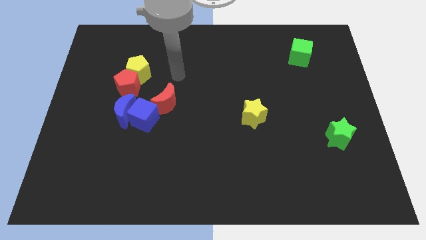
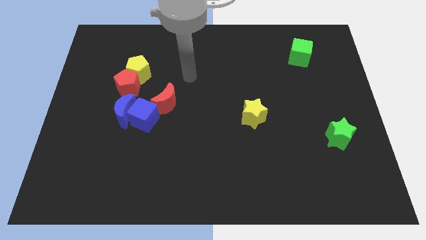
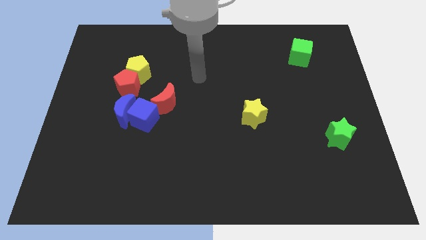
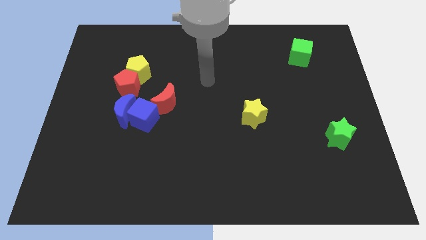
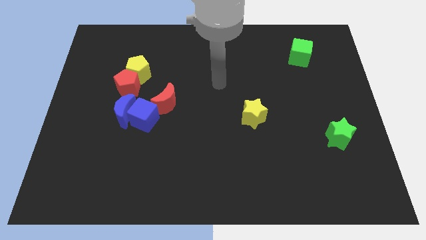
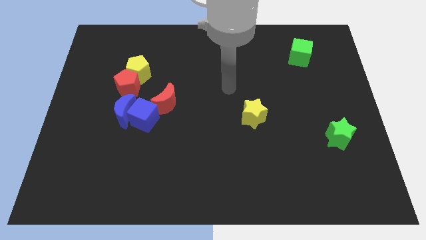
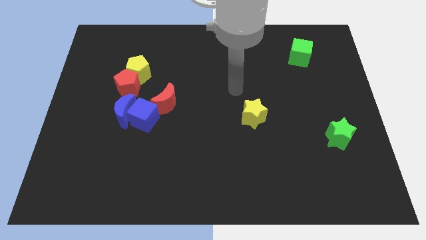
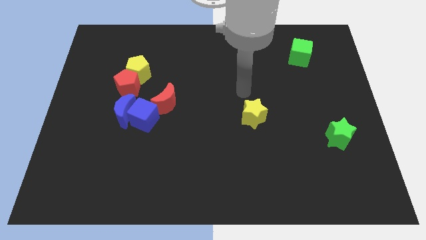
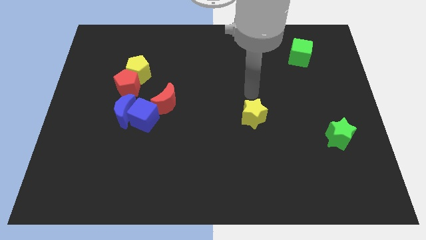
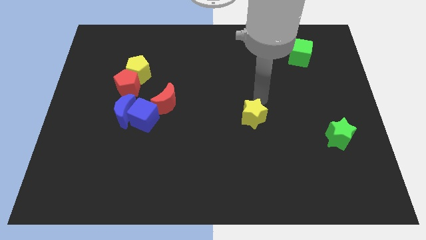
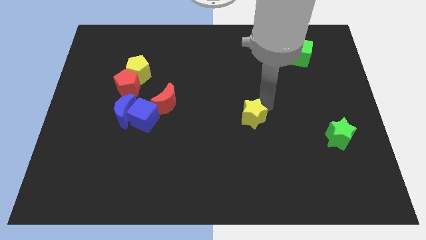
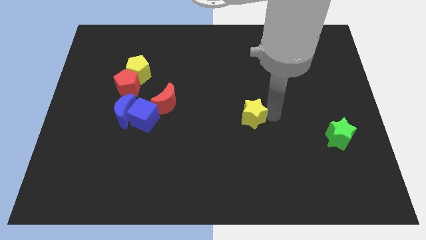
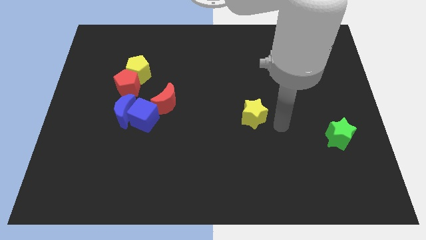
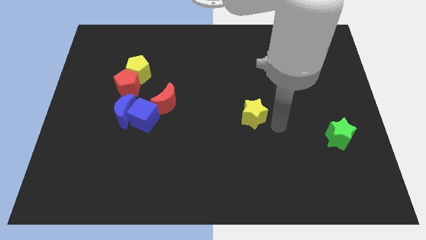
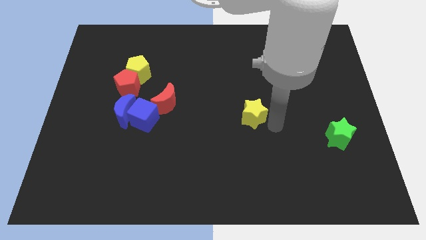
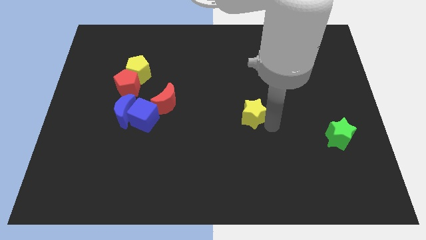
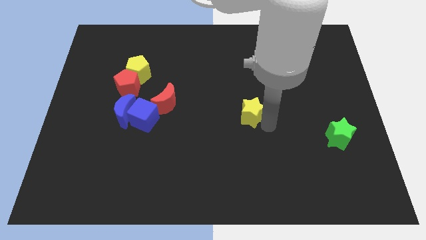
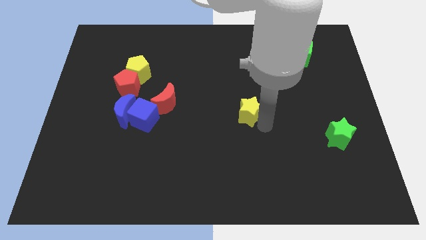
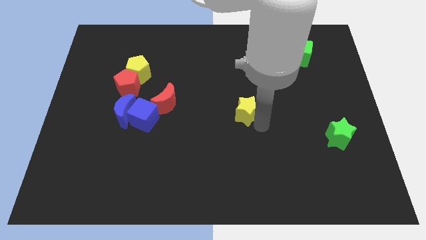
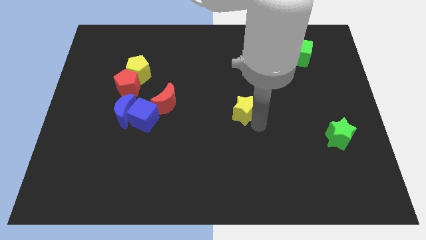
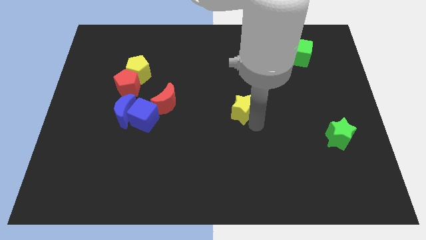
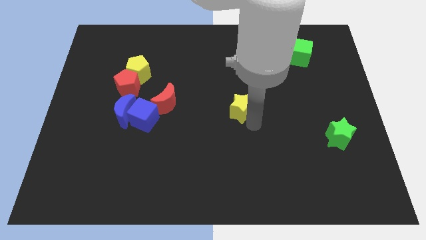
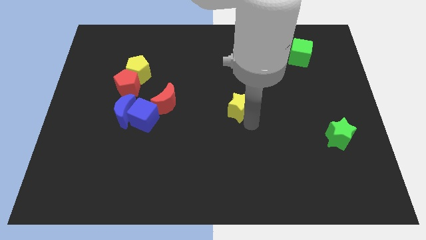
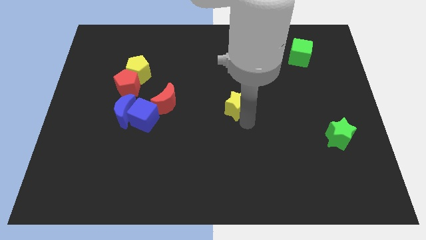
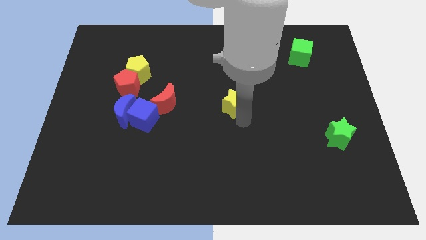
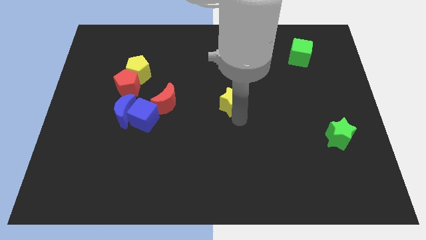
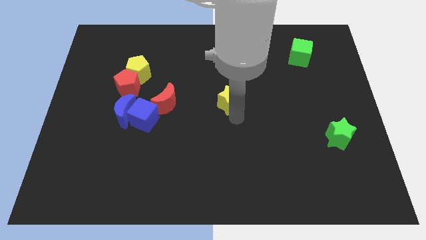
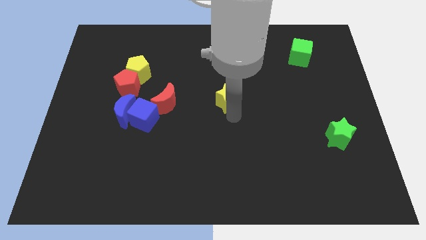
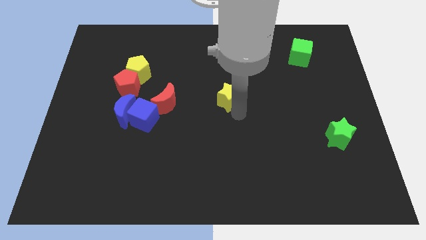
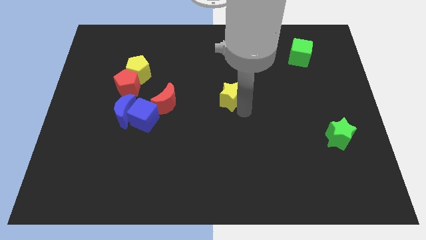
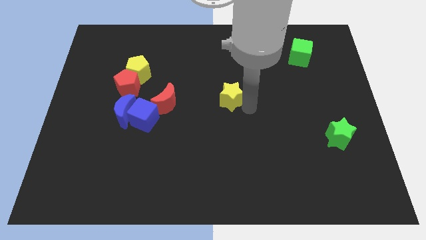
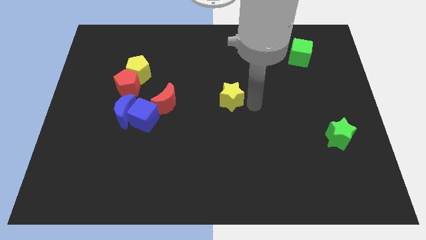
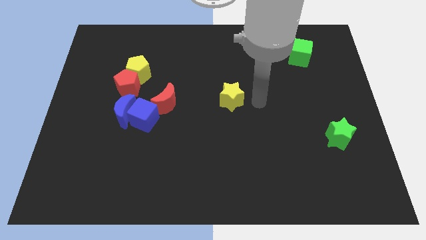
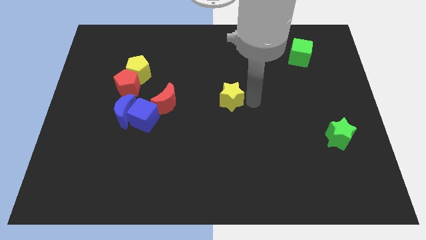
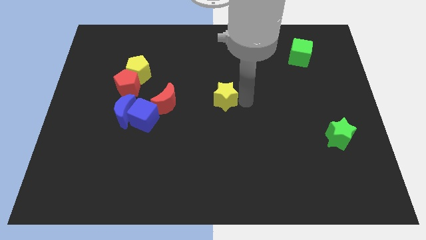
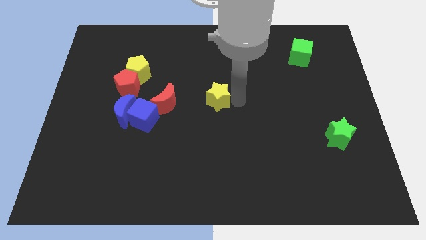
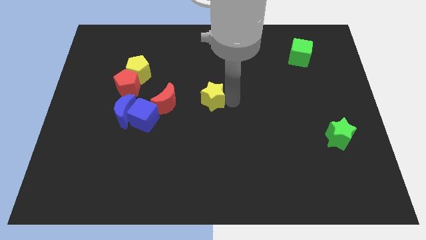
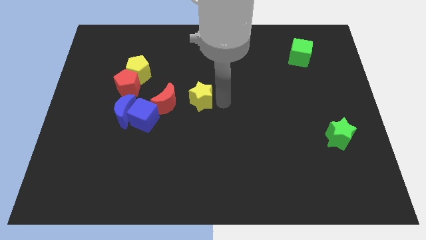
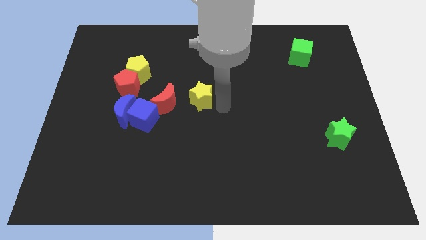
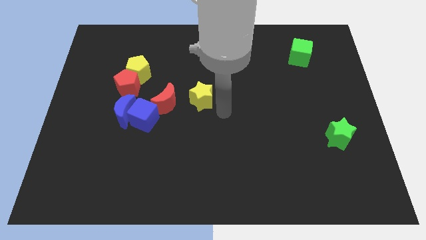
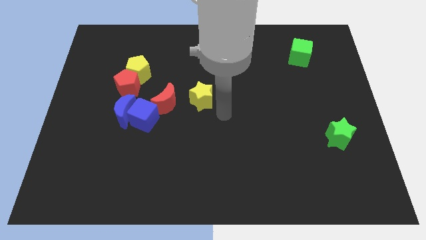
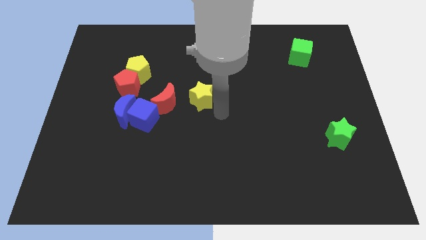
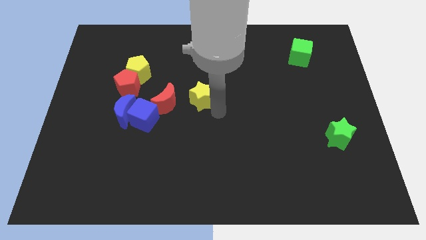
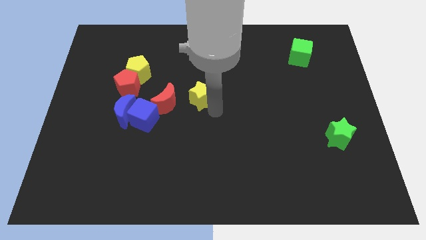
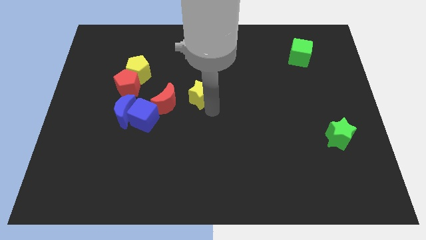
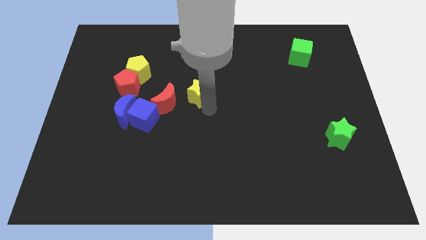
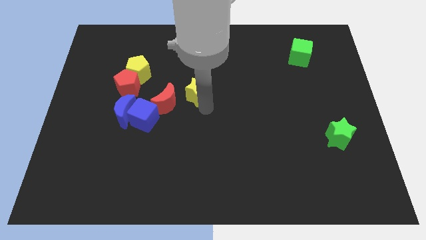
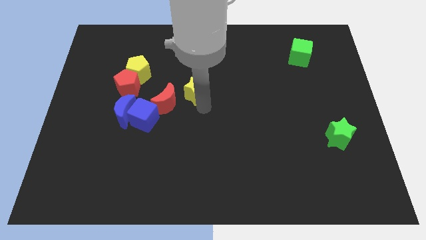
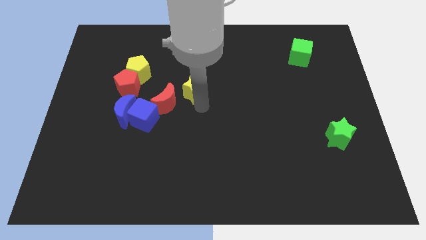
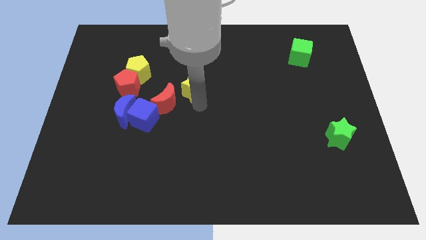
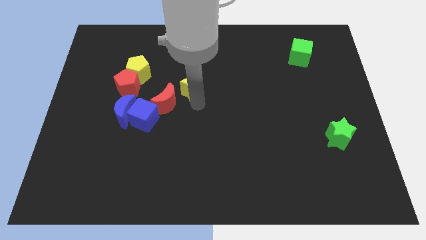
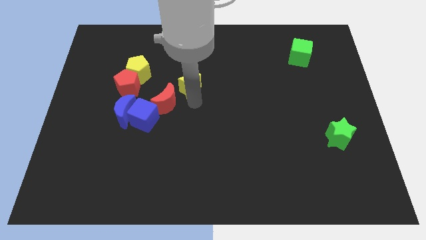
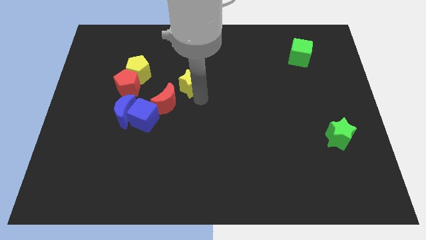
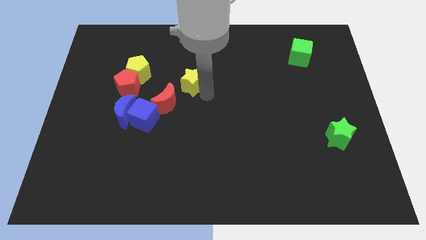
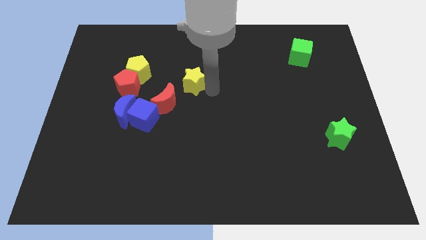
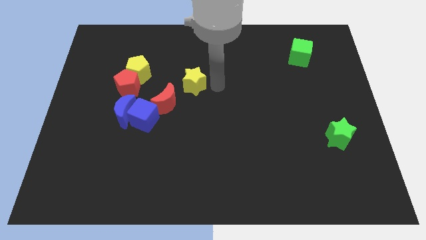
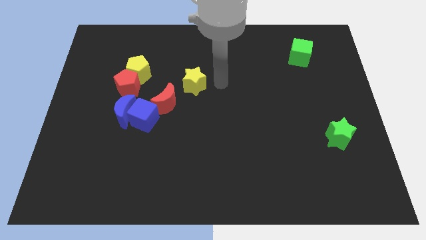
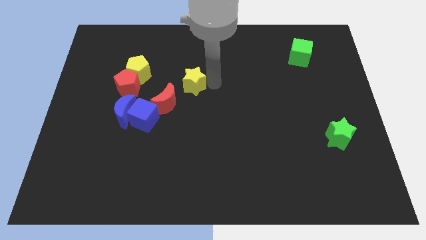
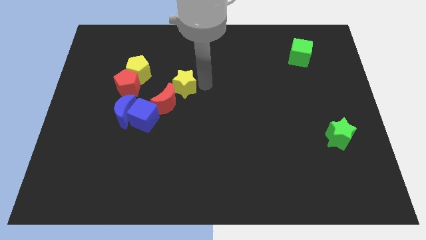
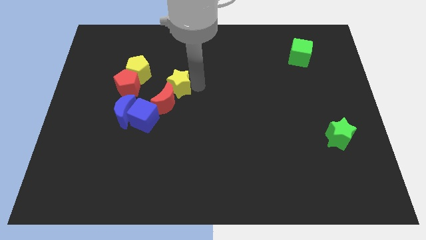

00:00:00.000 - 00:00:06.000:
put the yellow star to the bottom right of the yellow pentagon

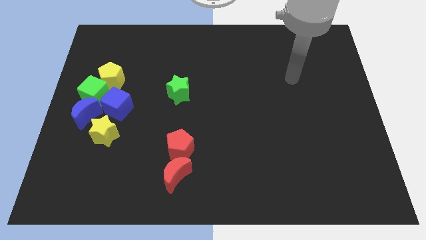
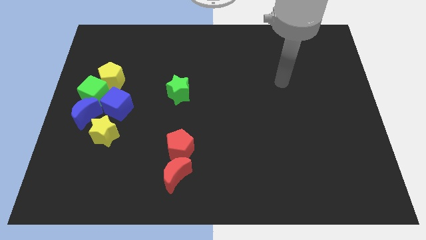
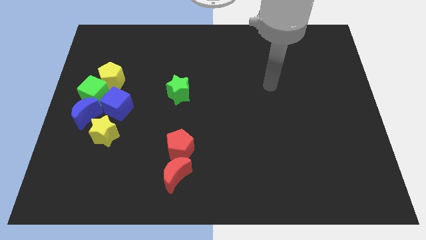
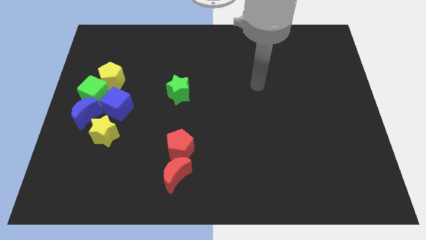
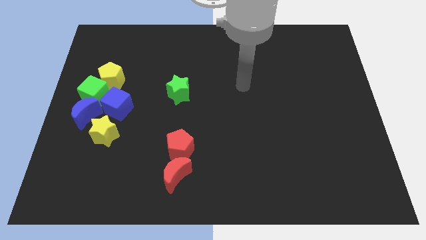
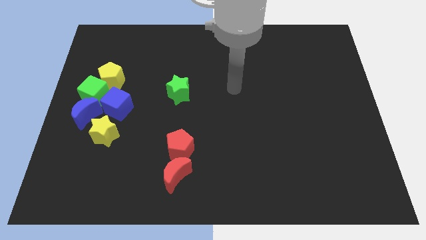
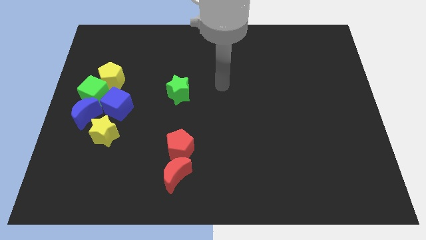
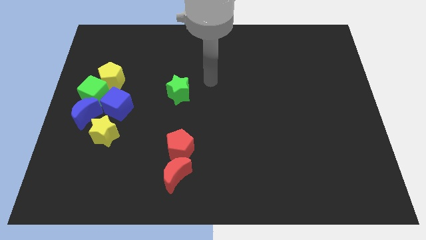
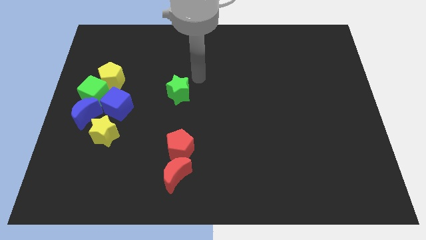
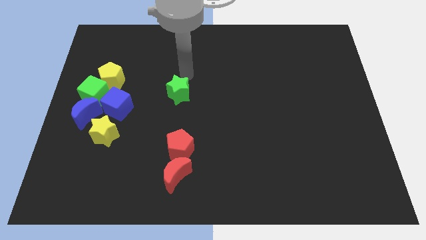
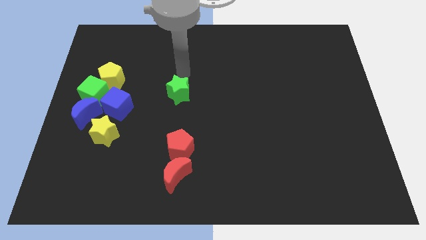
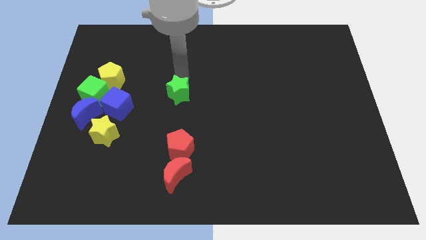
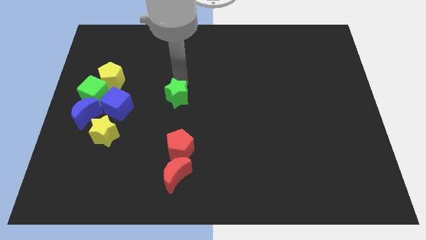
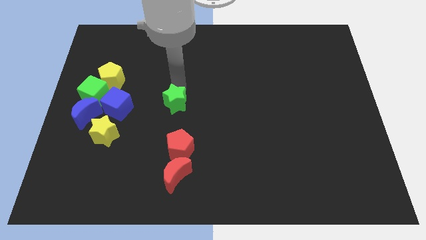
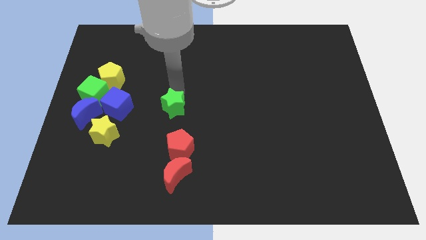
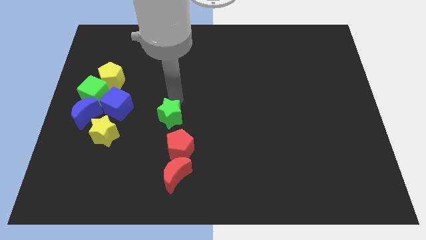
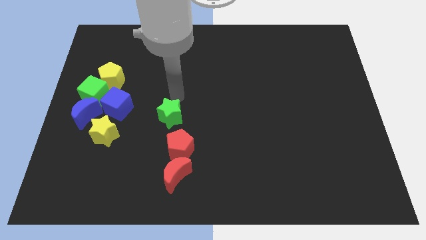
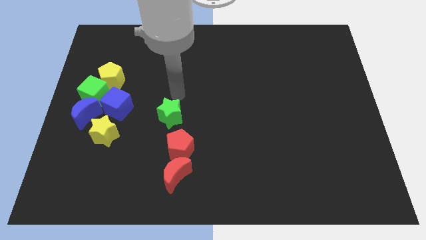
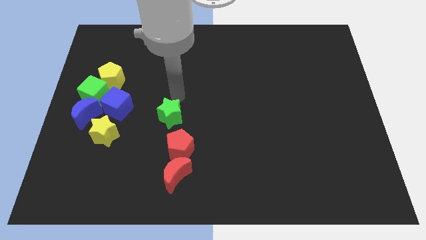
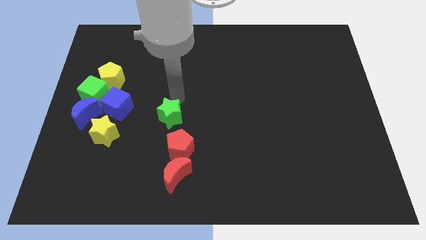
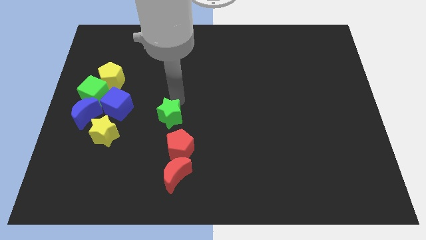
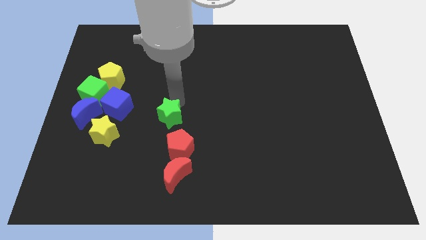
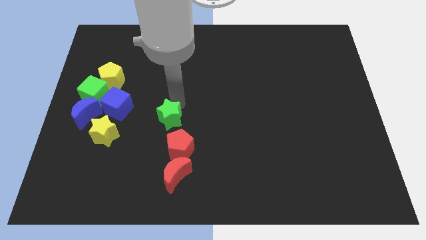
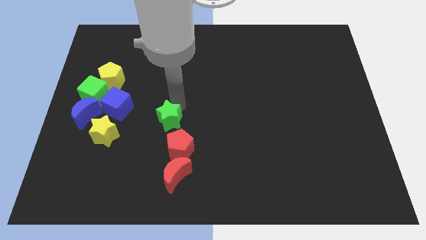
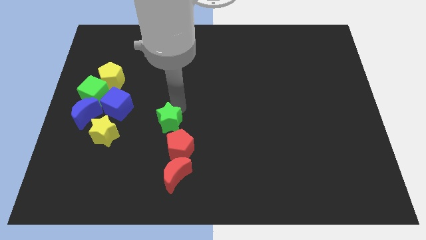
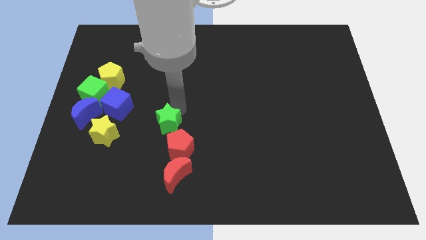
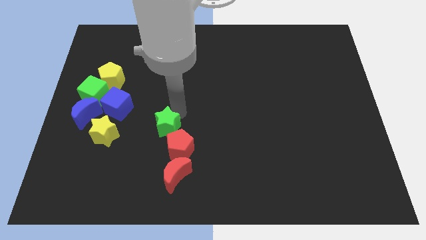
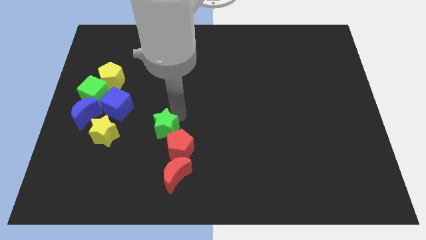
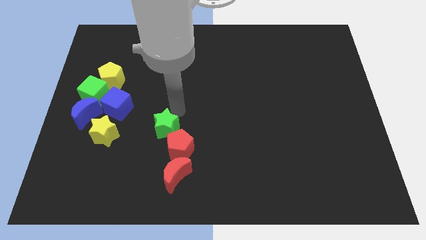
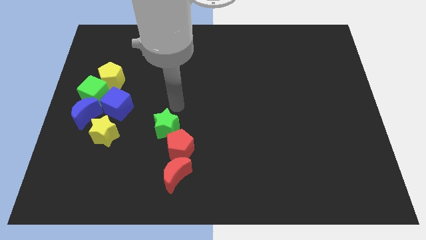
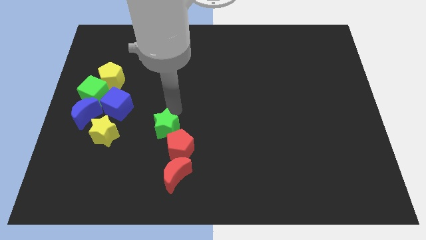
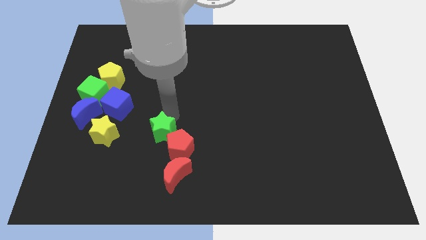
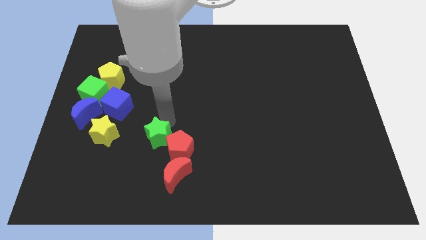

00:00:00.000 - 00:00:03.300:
push the green star diagonally up and to the left of the red moon
